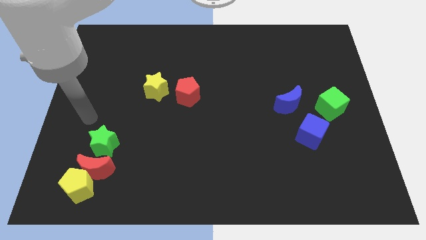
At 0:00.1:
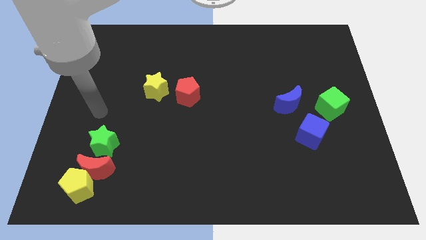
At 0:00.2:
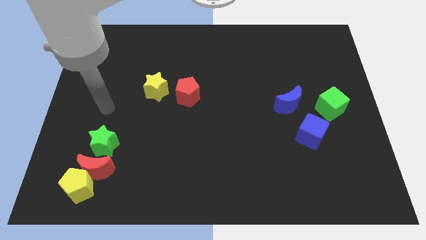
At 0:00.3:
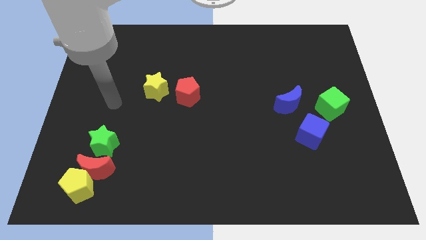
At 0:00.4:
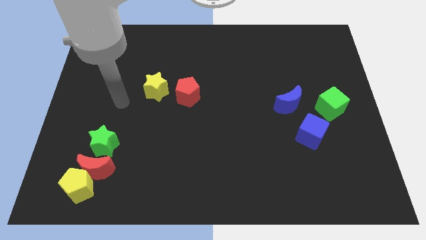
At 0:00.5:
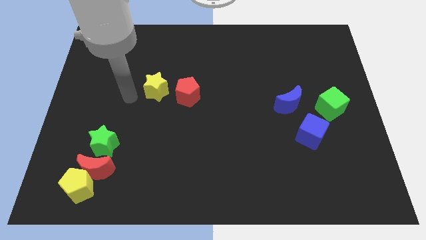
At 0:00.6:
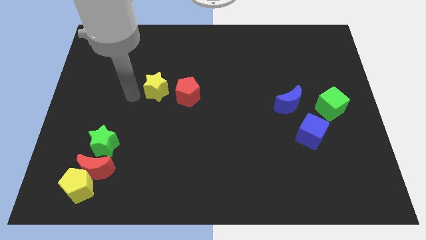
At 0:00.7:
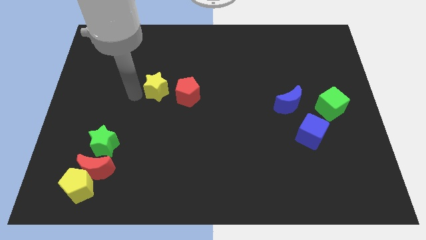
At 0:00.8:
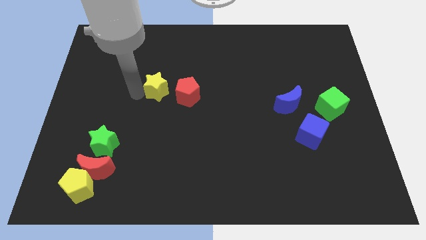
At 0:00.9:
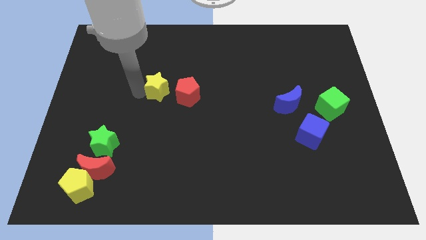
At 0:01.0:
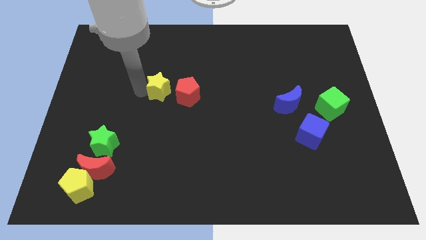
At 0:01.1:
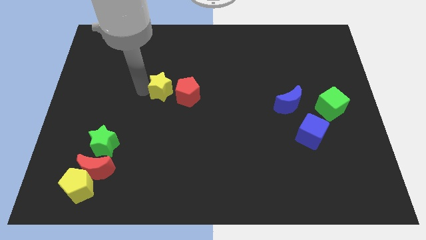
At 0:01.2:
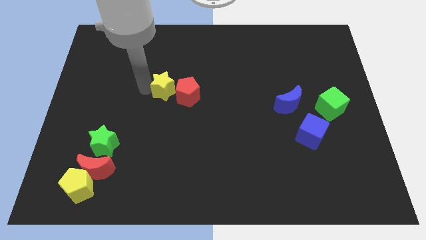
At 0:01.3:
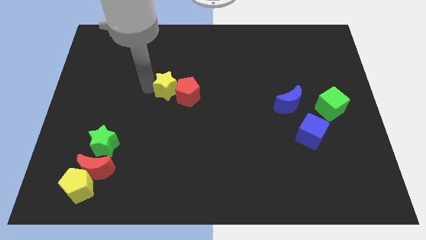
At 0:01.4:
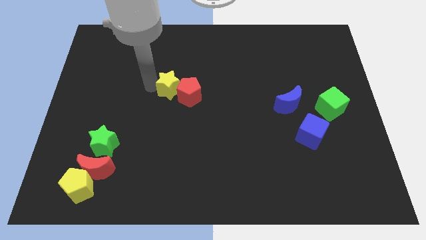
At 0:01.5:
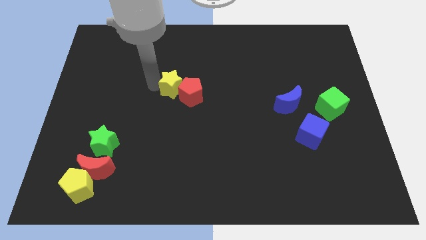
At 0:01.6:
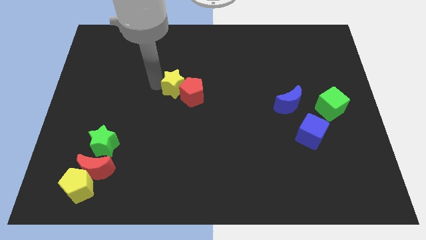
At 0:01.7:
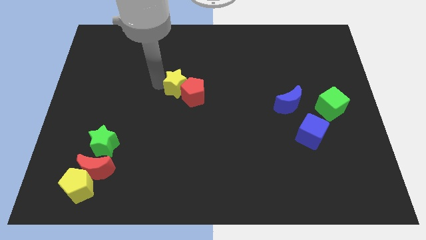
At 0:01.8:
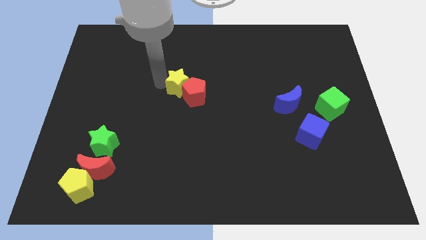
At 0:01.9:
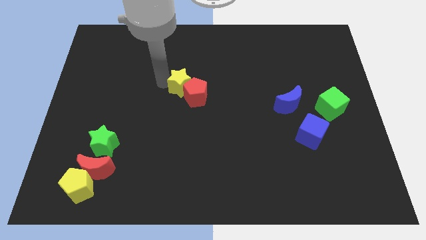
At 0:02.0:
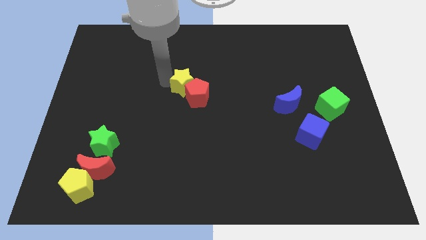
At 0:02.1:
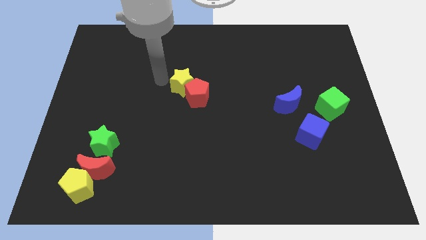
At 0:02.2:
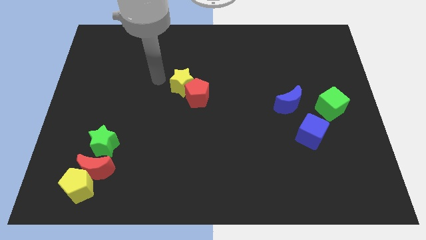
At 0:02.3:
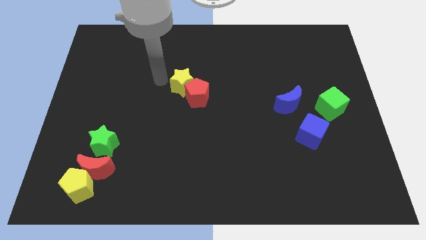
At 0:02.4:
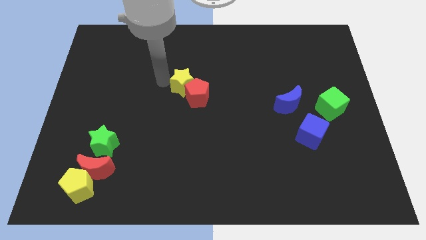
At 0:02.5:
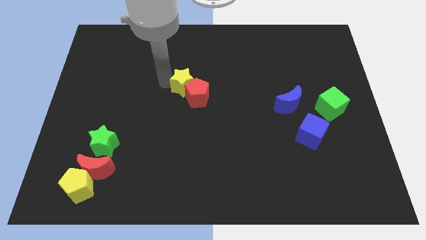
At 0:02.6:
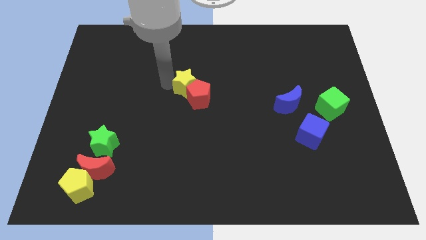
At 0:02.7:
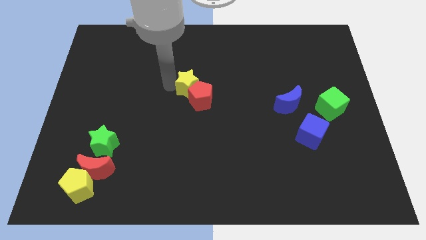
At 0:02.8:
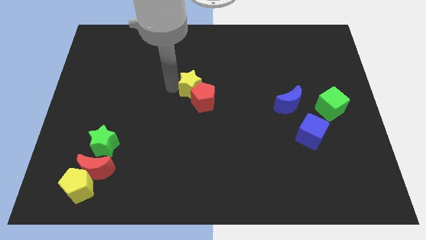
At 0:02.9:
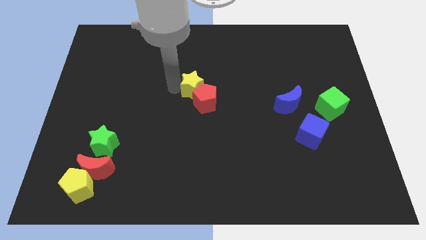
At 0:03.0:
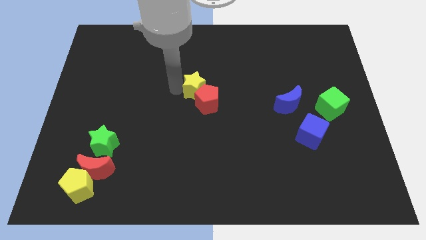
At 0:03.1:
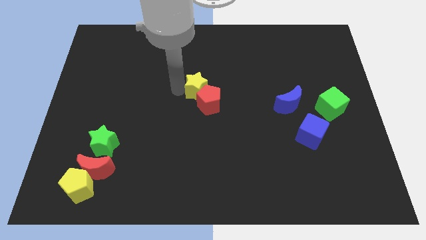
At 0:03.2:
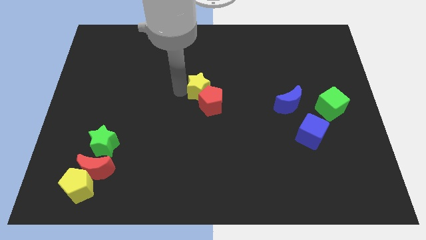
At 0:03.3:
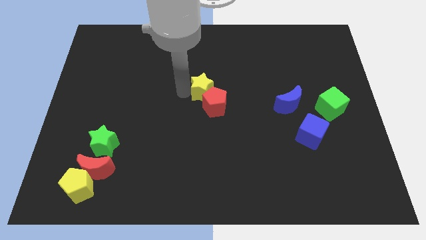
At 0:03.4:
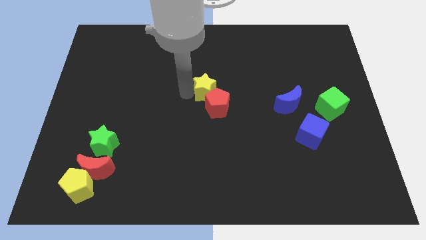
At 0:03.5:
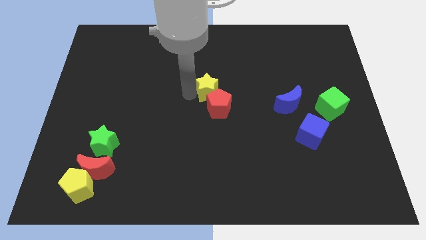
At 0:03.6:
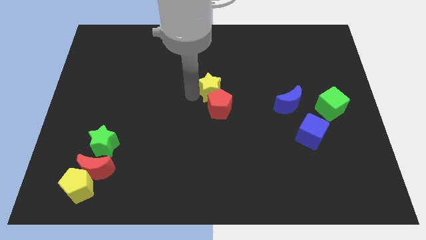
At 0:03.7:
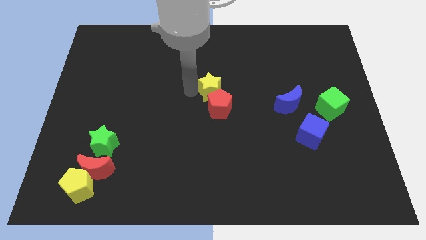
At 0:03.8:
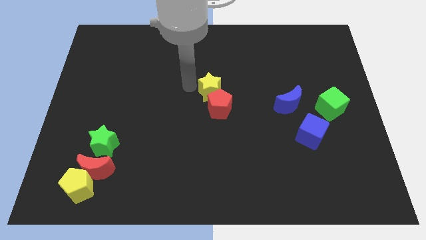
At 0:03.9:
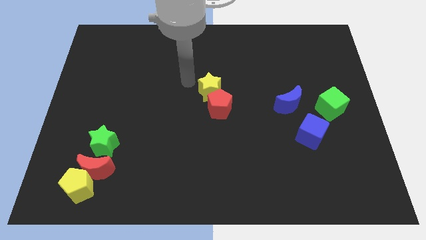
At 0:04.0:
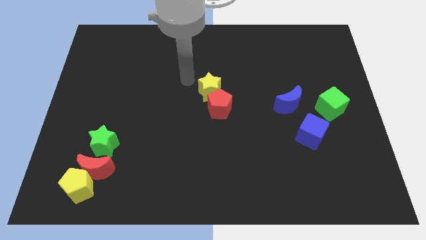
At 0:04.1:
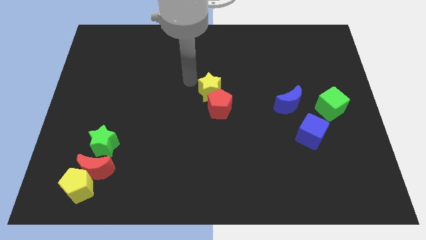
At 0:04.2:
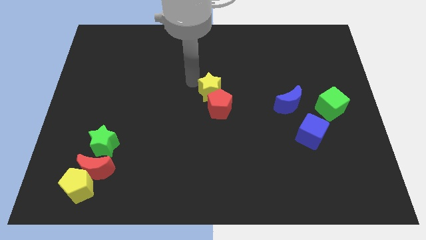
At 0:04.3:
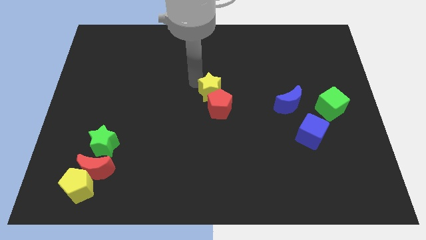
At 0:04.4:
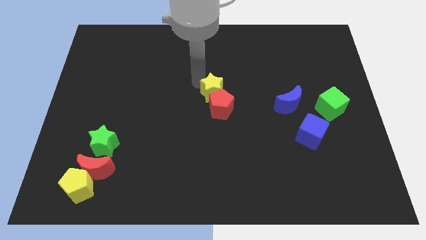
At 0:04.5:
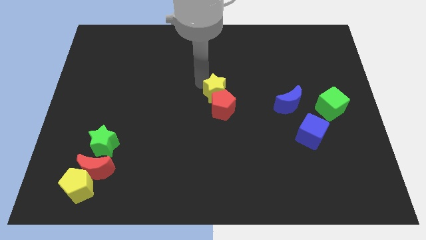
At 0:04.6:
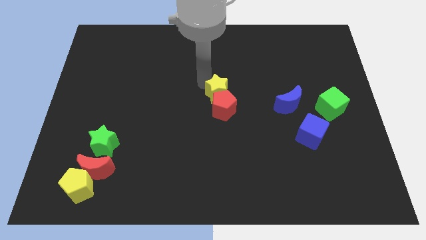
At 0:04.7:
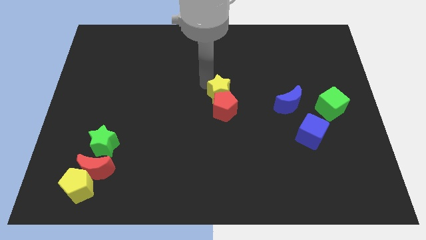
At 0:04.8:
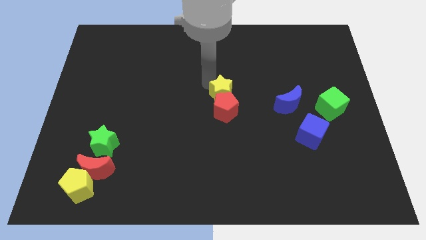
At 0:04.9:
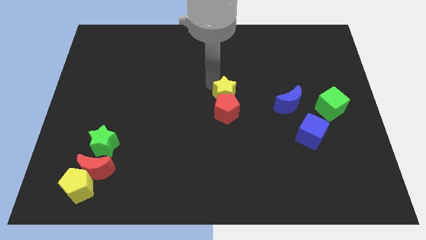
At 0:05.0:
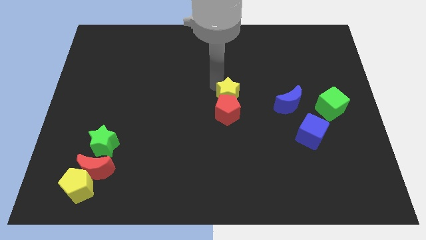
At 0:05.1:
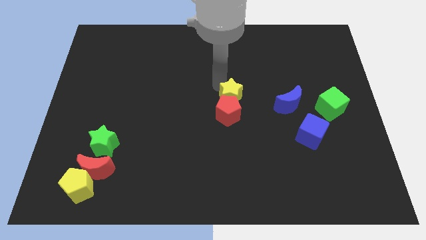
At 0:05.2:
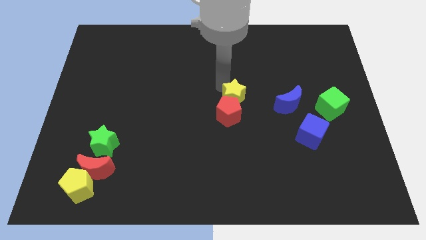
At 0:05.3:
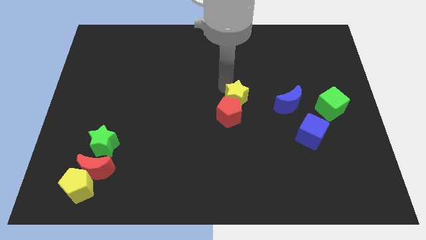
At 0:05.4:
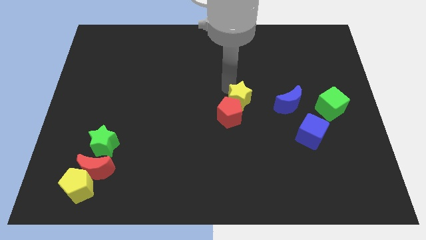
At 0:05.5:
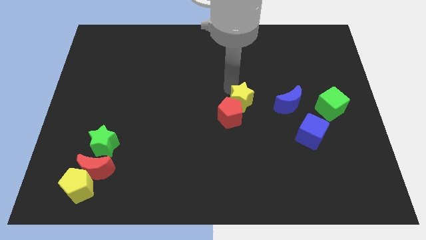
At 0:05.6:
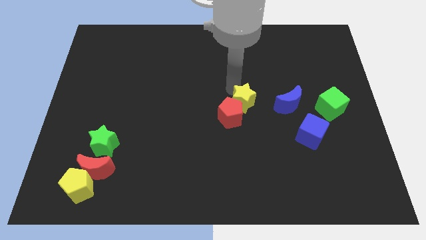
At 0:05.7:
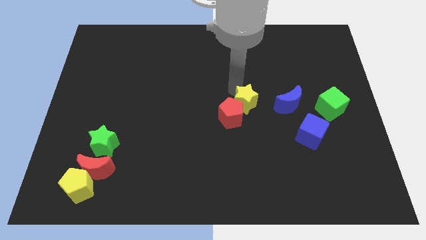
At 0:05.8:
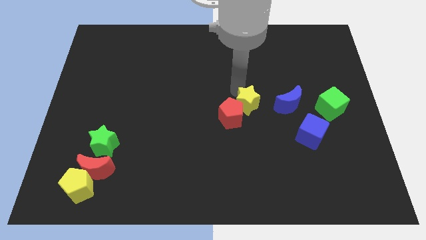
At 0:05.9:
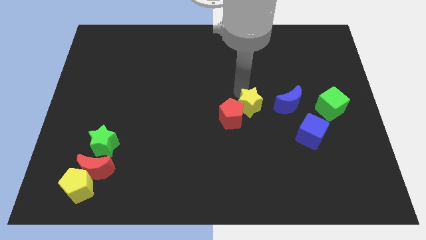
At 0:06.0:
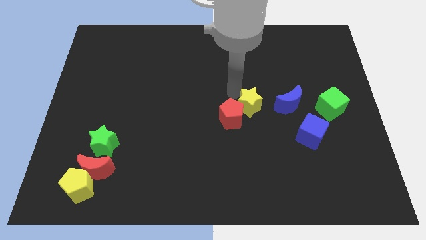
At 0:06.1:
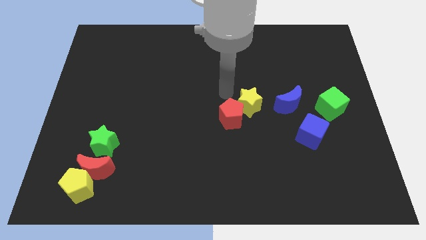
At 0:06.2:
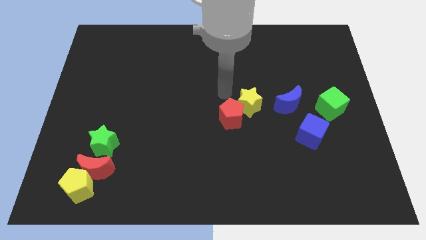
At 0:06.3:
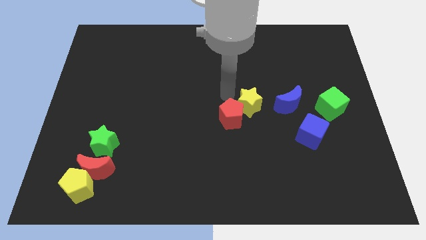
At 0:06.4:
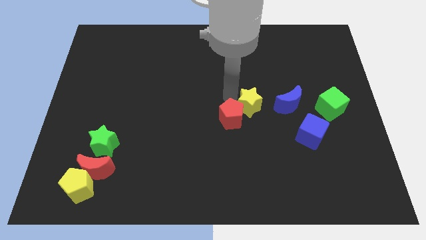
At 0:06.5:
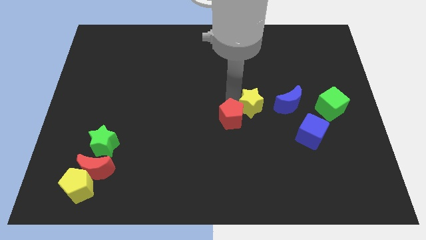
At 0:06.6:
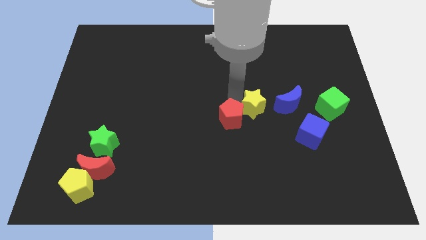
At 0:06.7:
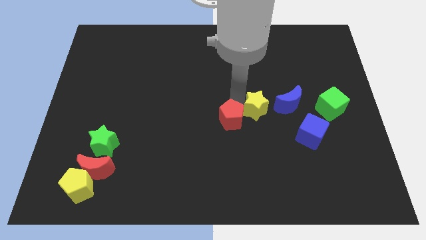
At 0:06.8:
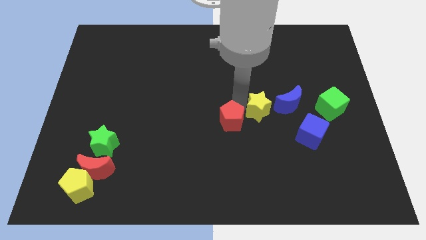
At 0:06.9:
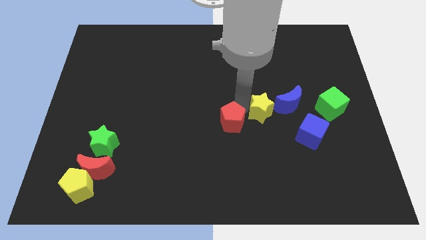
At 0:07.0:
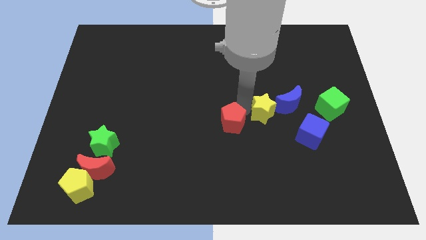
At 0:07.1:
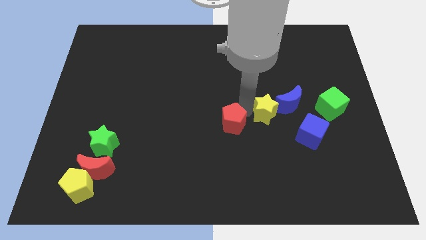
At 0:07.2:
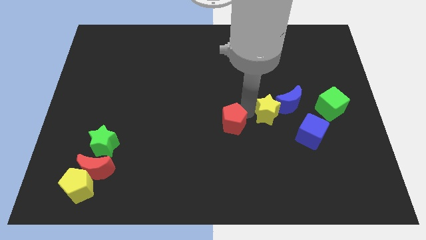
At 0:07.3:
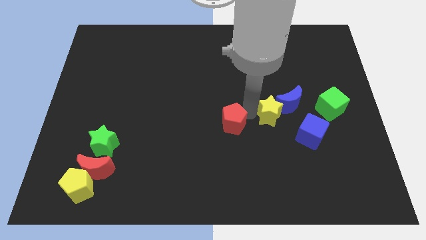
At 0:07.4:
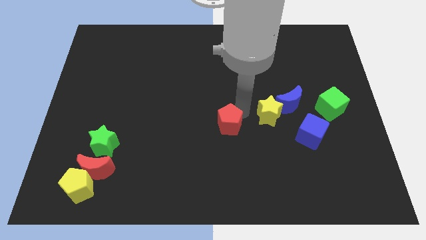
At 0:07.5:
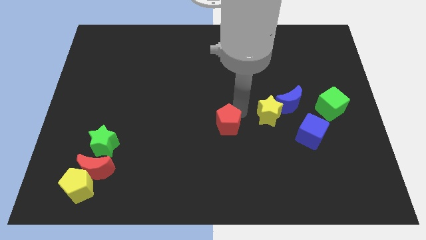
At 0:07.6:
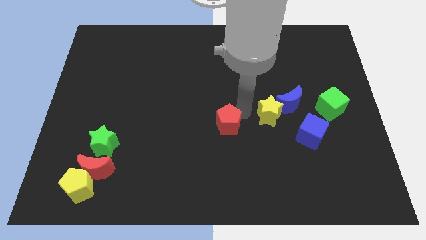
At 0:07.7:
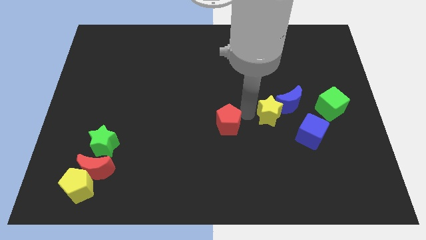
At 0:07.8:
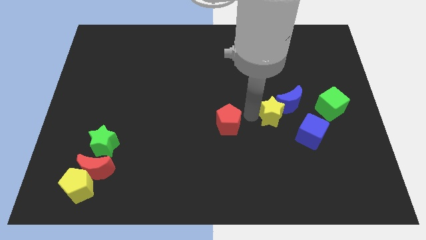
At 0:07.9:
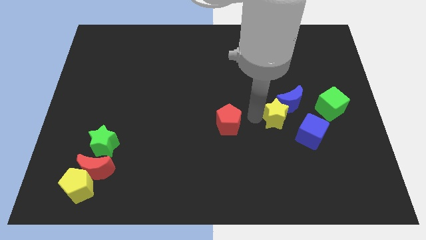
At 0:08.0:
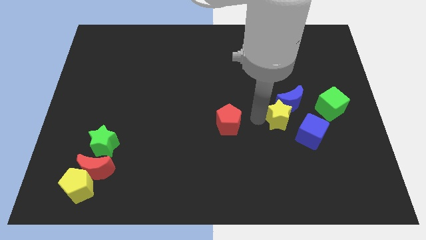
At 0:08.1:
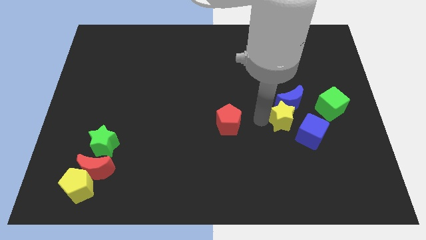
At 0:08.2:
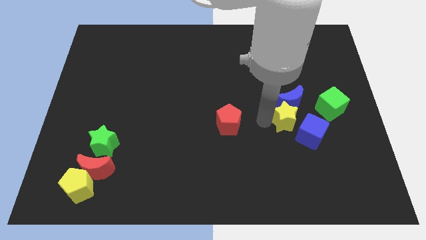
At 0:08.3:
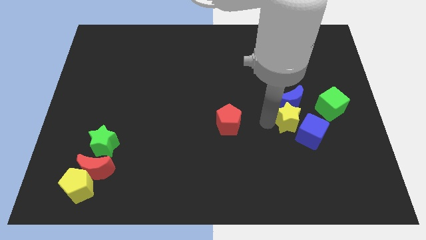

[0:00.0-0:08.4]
put the yellow star to the bottom right side of the blue moon
